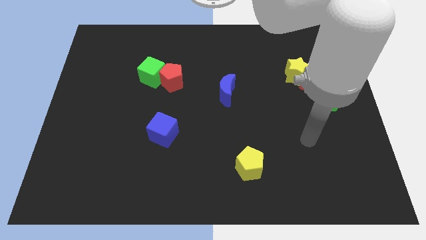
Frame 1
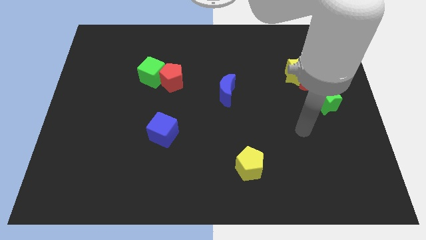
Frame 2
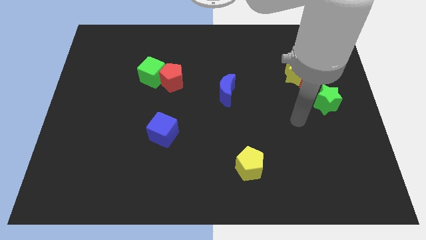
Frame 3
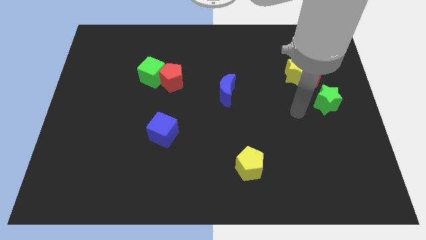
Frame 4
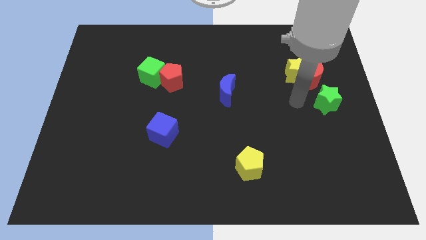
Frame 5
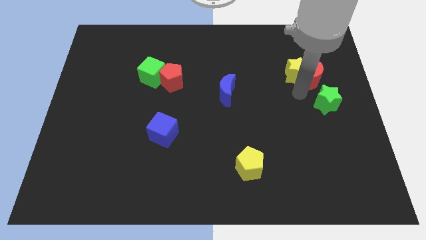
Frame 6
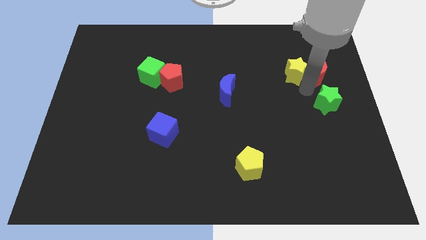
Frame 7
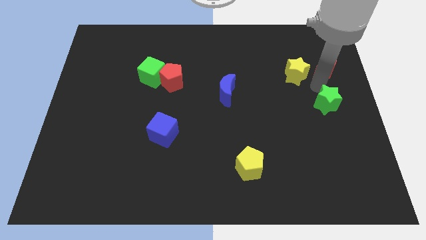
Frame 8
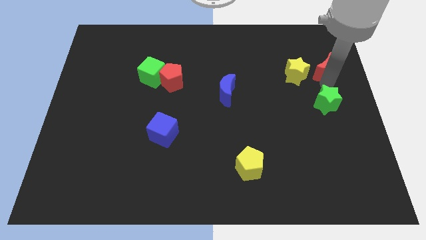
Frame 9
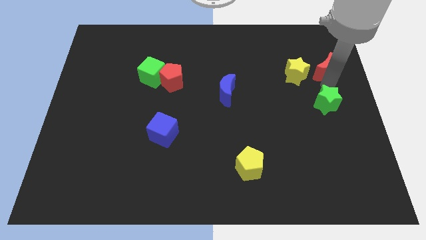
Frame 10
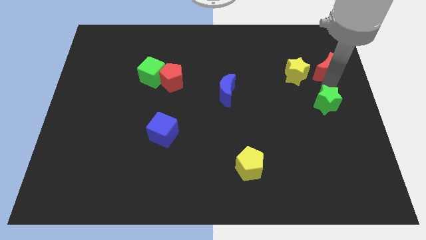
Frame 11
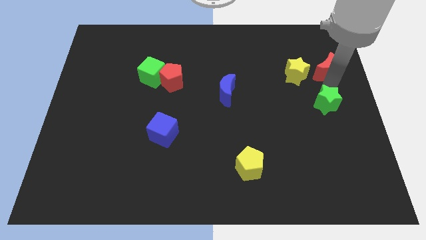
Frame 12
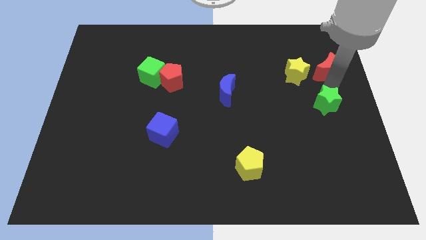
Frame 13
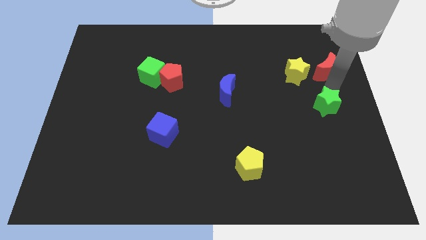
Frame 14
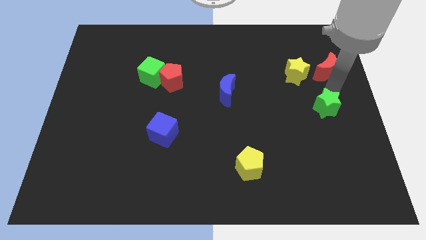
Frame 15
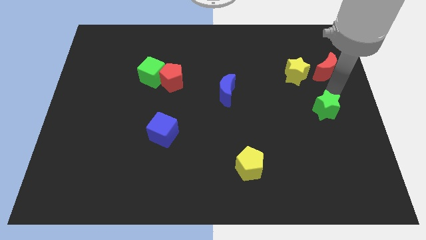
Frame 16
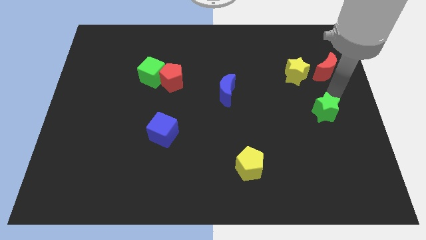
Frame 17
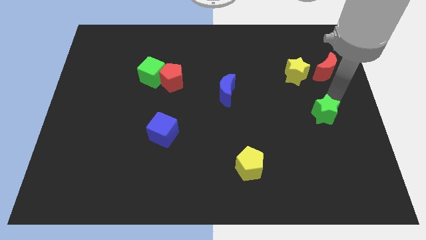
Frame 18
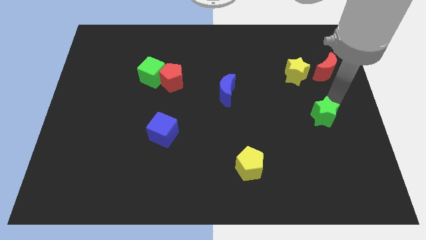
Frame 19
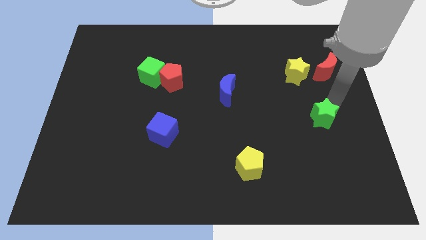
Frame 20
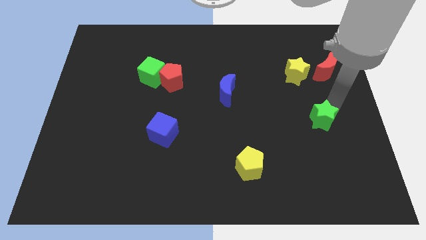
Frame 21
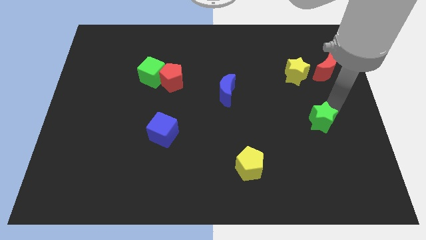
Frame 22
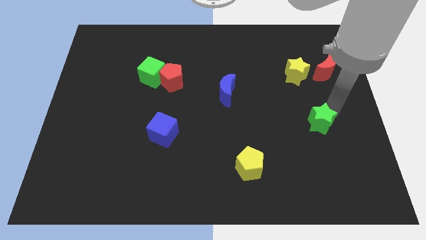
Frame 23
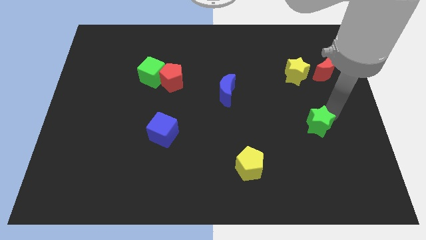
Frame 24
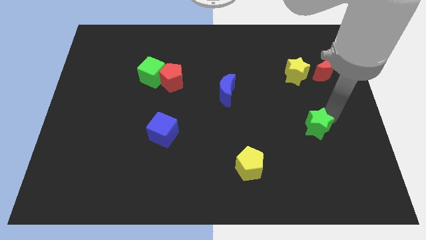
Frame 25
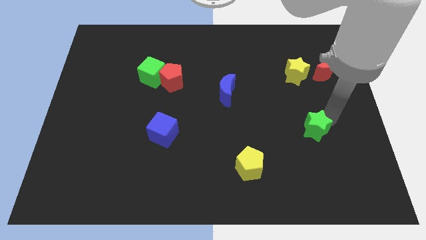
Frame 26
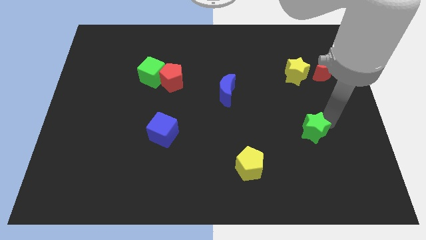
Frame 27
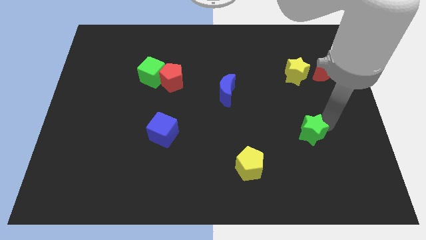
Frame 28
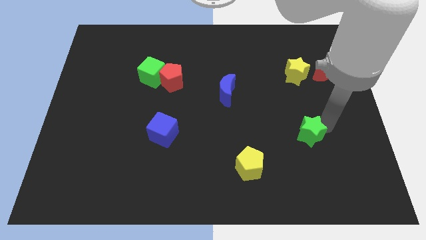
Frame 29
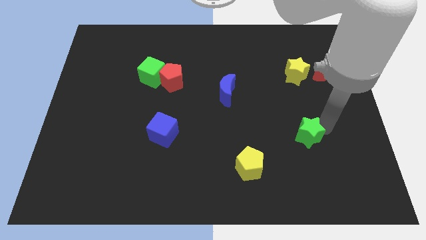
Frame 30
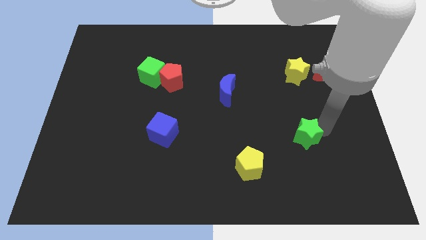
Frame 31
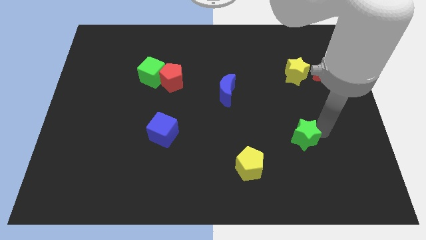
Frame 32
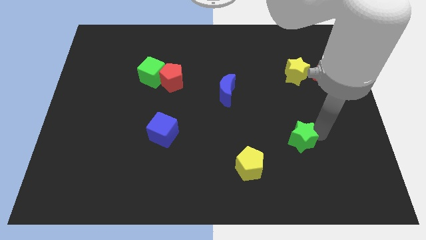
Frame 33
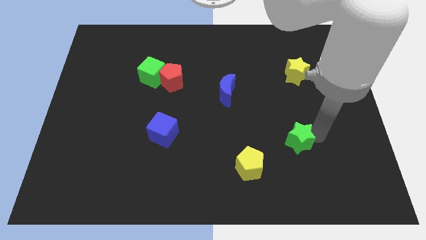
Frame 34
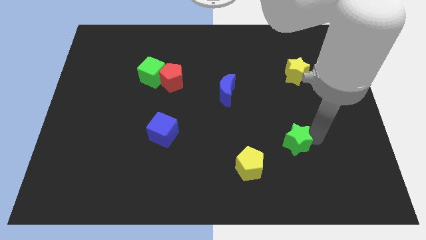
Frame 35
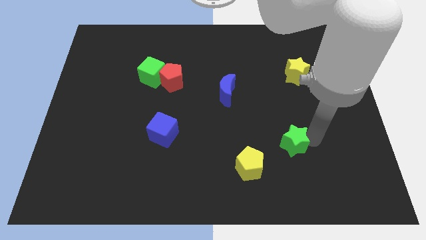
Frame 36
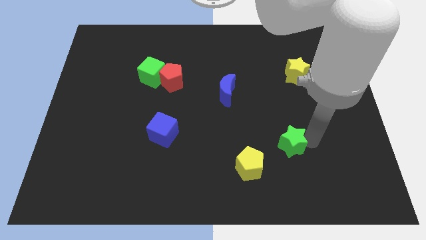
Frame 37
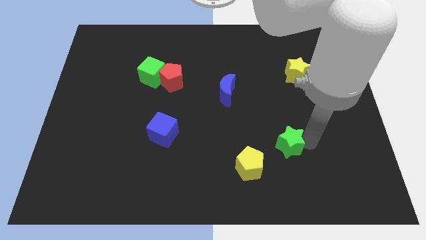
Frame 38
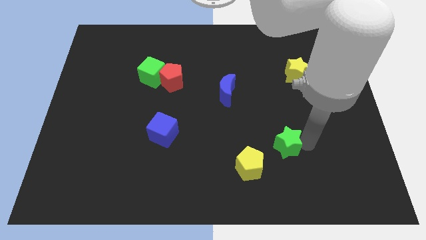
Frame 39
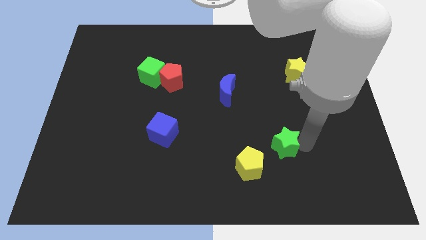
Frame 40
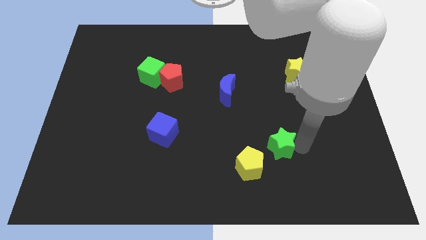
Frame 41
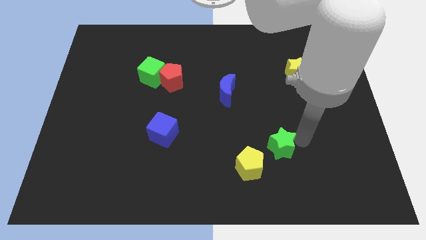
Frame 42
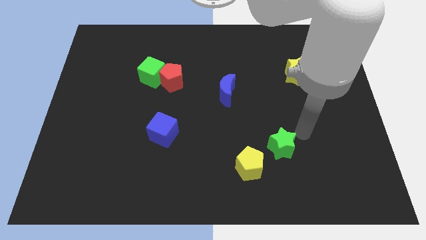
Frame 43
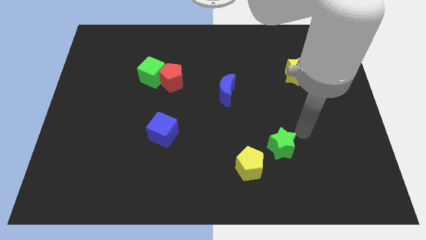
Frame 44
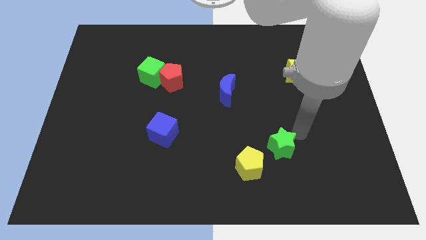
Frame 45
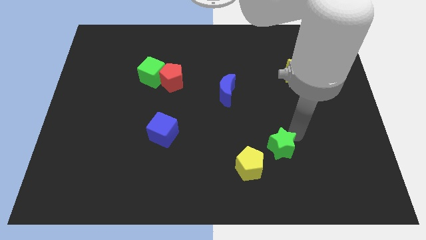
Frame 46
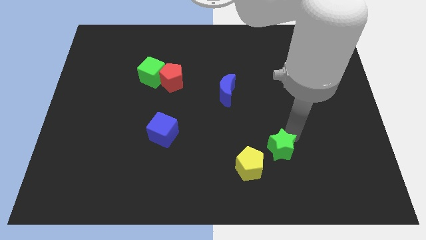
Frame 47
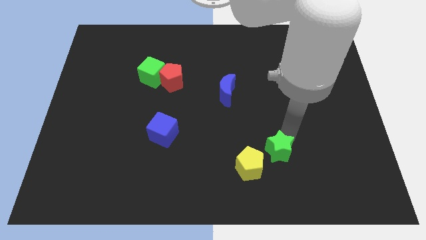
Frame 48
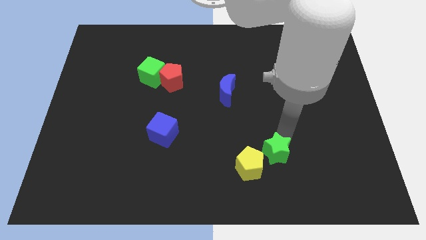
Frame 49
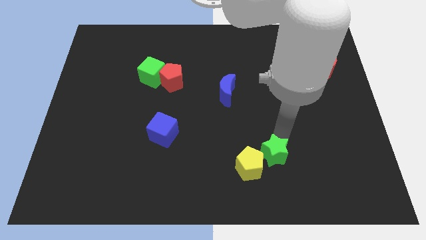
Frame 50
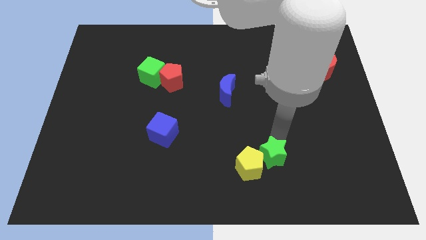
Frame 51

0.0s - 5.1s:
slide the green star towards the yellow pentagon

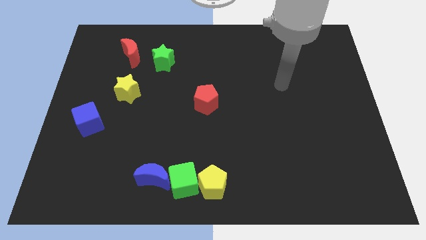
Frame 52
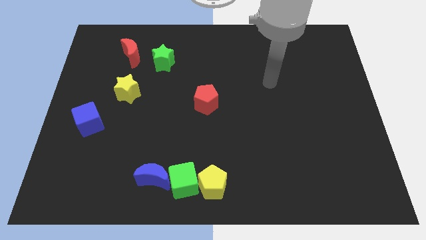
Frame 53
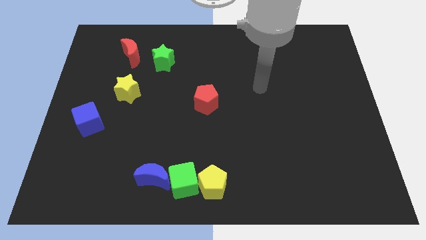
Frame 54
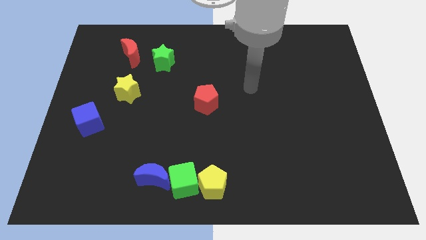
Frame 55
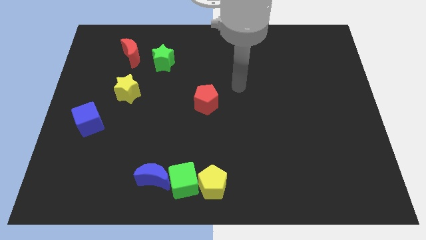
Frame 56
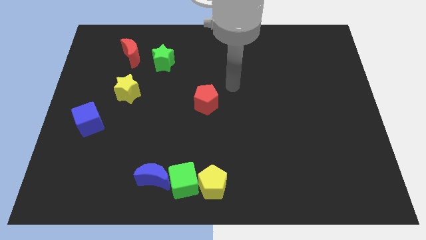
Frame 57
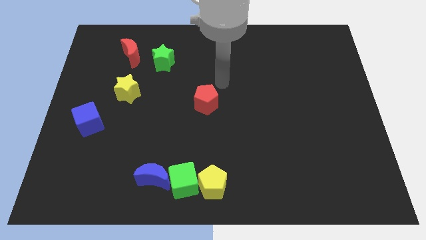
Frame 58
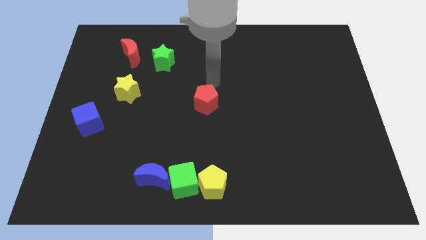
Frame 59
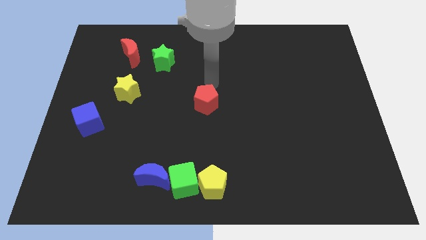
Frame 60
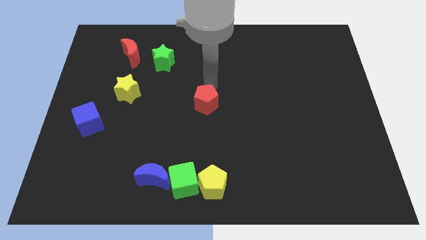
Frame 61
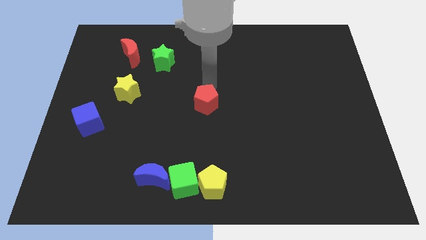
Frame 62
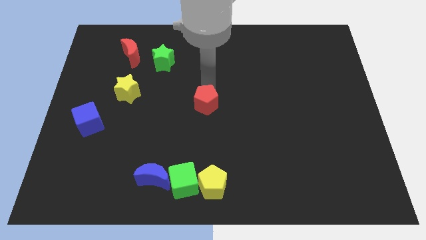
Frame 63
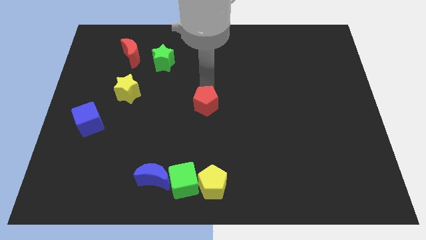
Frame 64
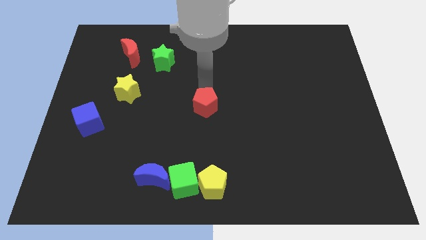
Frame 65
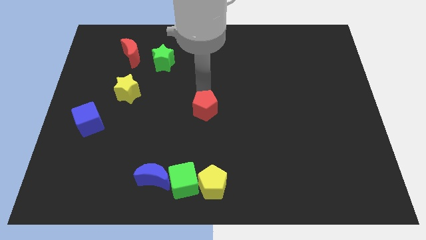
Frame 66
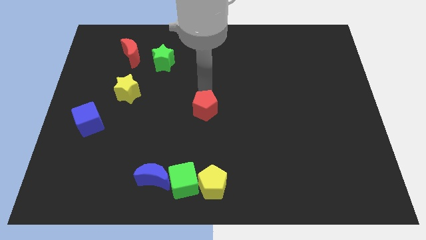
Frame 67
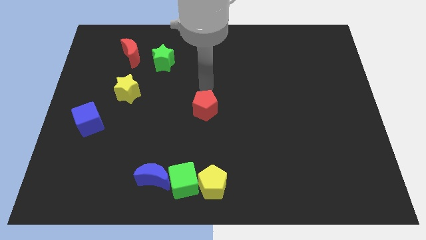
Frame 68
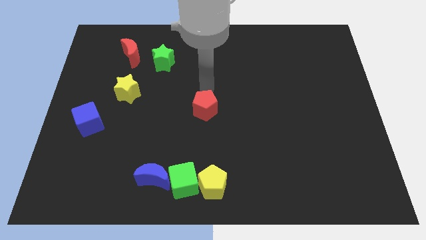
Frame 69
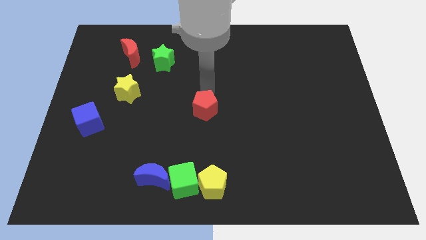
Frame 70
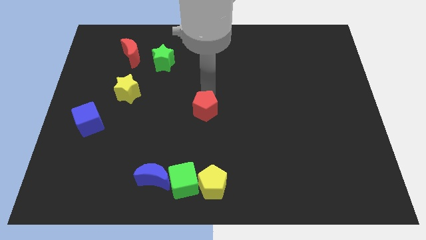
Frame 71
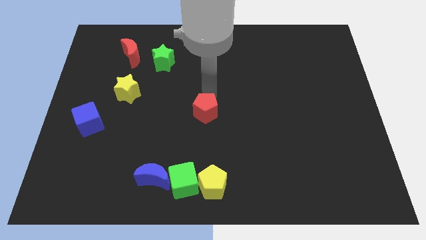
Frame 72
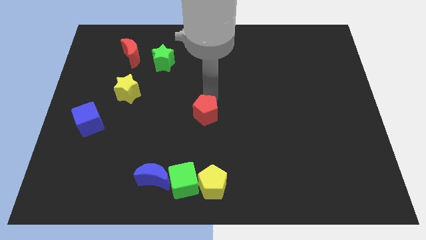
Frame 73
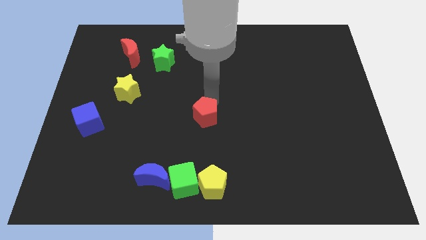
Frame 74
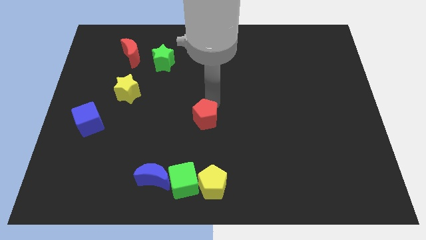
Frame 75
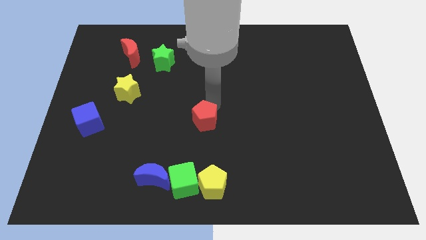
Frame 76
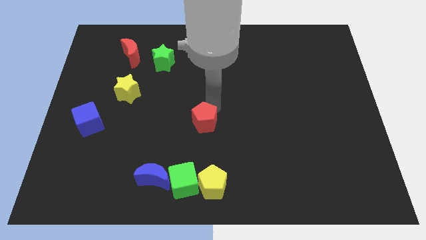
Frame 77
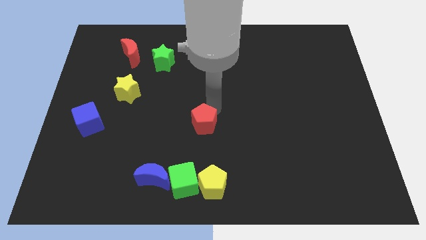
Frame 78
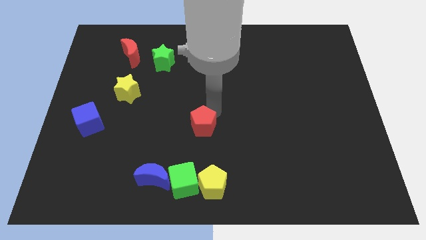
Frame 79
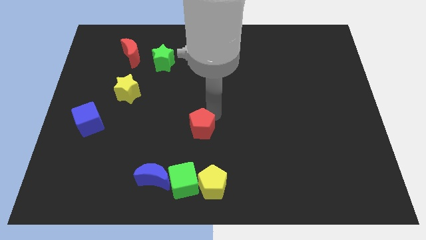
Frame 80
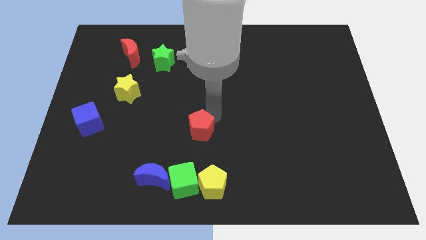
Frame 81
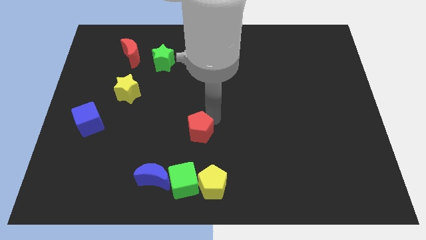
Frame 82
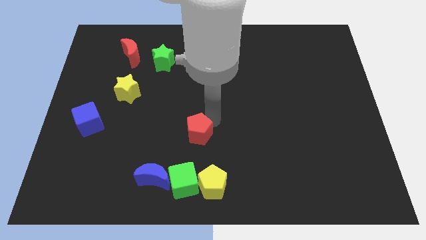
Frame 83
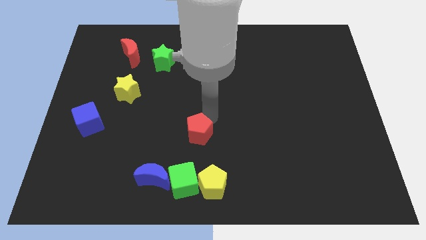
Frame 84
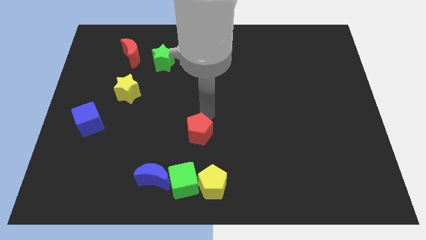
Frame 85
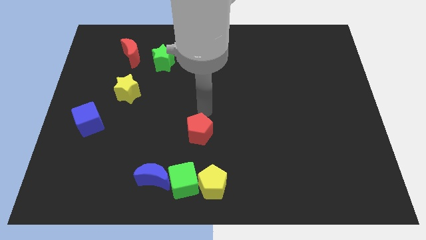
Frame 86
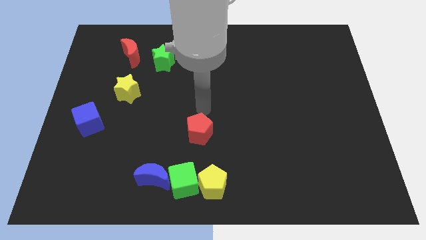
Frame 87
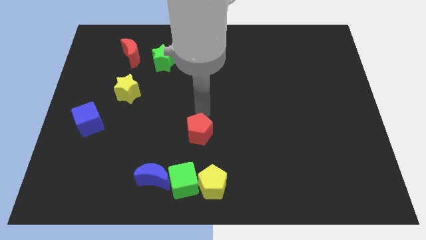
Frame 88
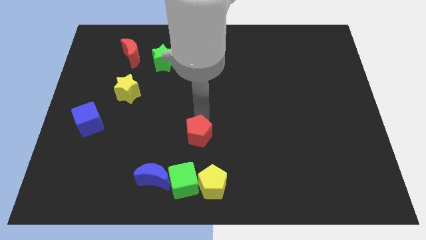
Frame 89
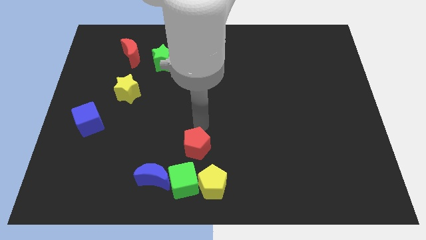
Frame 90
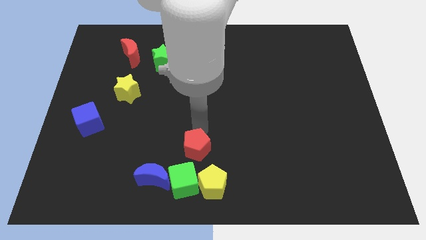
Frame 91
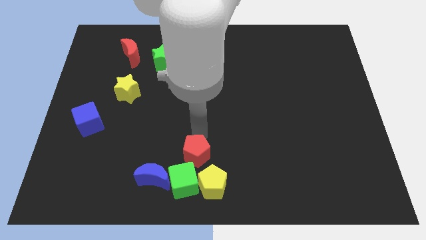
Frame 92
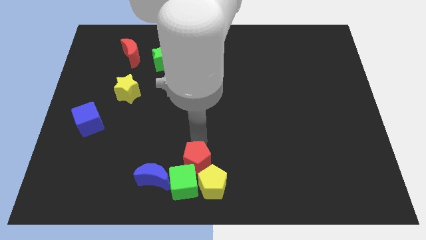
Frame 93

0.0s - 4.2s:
slide the red pentagon towards the green cube
